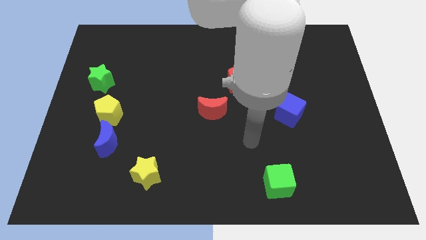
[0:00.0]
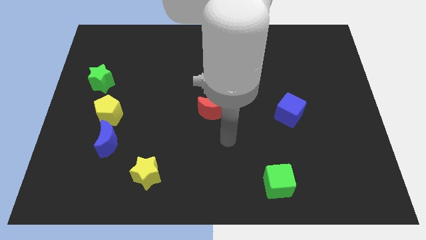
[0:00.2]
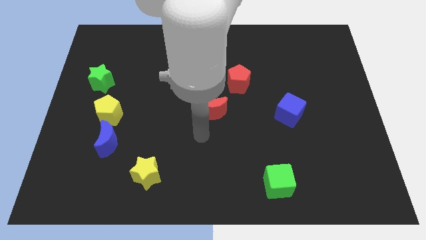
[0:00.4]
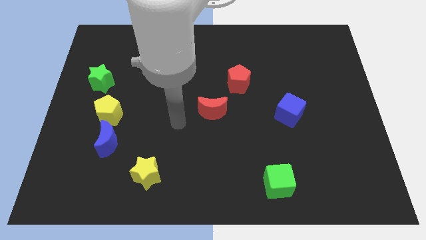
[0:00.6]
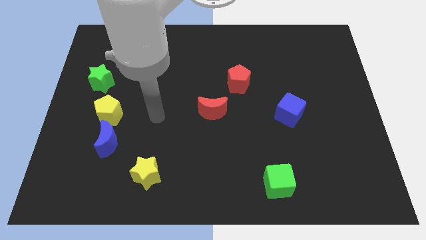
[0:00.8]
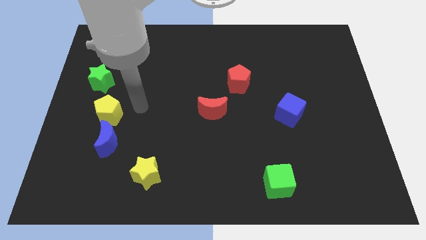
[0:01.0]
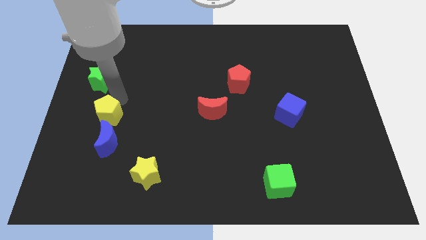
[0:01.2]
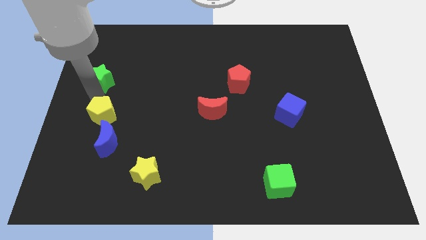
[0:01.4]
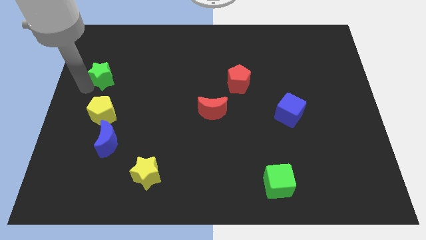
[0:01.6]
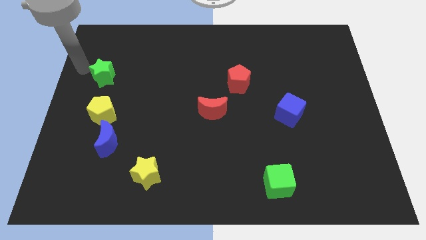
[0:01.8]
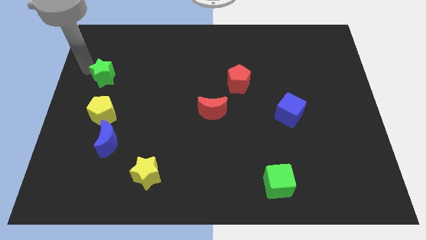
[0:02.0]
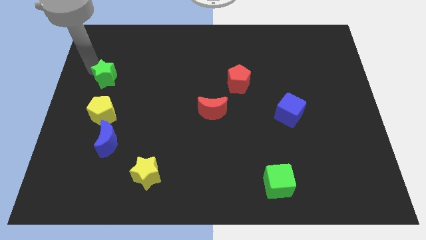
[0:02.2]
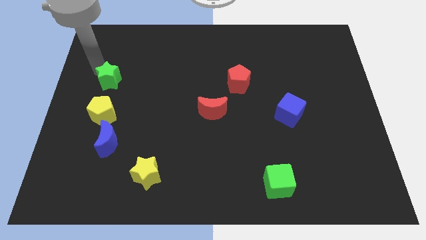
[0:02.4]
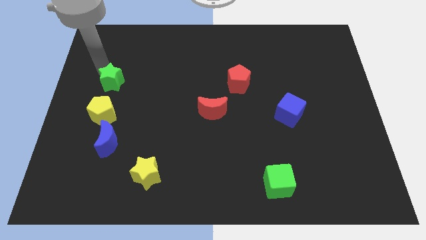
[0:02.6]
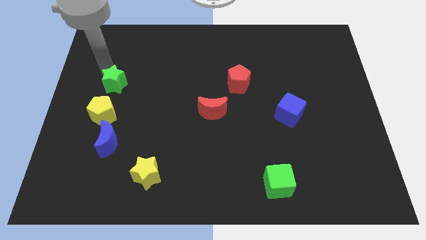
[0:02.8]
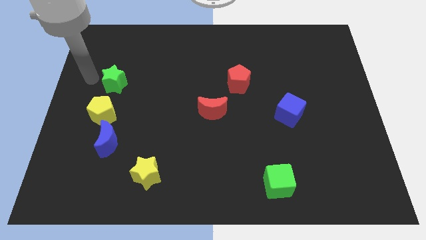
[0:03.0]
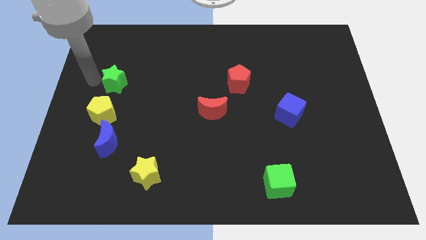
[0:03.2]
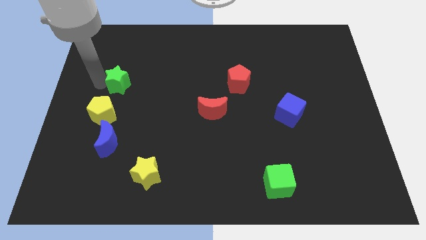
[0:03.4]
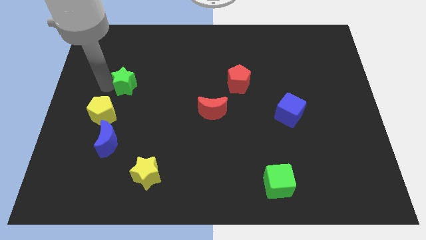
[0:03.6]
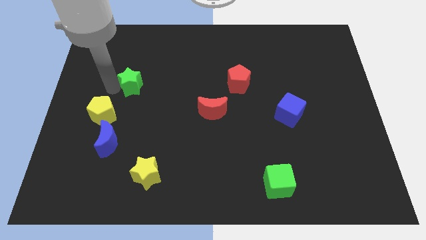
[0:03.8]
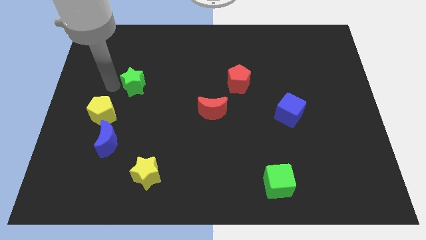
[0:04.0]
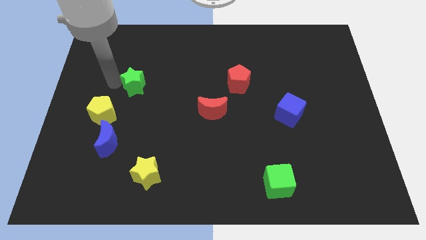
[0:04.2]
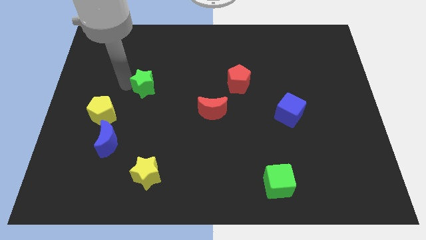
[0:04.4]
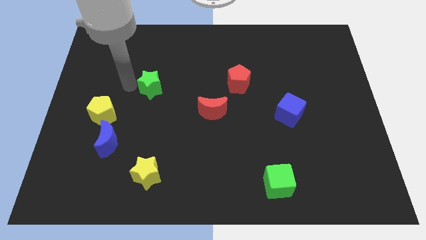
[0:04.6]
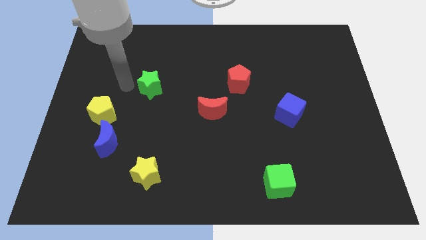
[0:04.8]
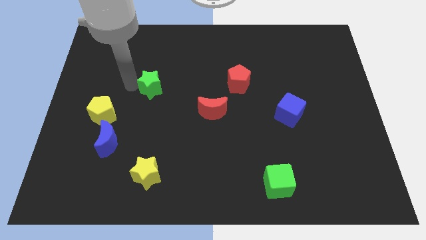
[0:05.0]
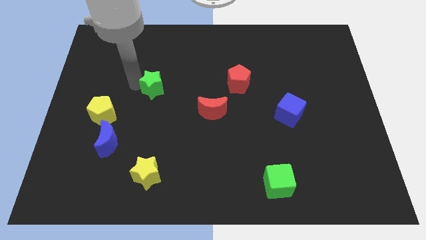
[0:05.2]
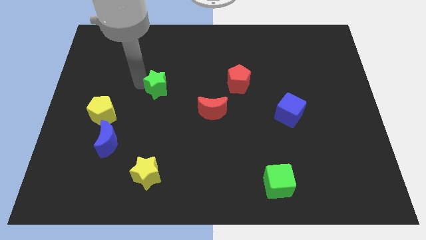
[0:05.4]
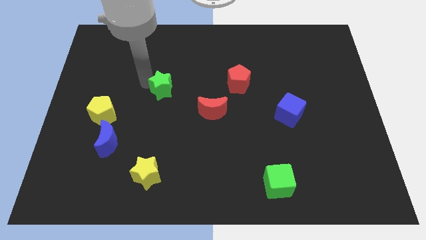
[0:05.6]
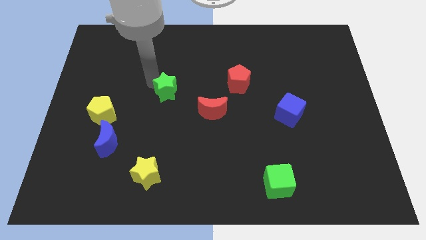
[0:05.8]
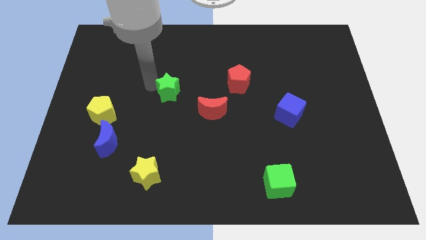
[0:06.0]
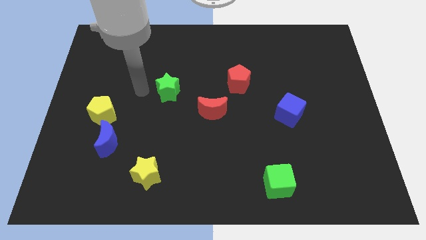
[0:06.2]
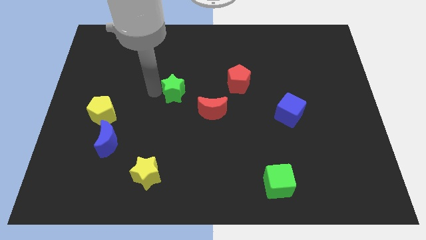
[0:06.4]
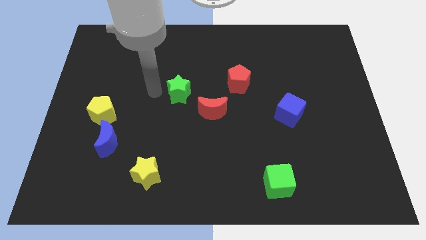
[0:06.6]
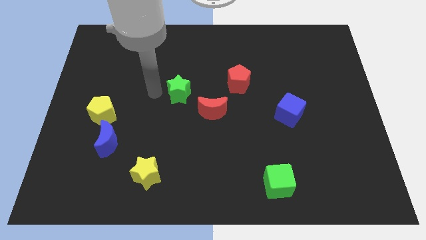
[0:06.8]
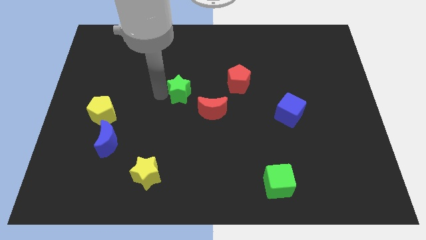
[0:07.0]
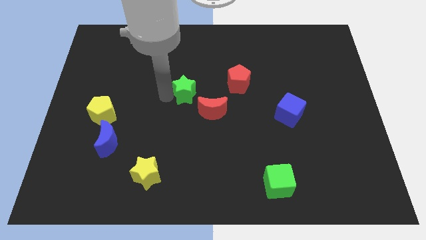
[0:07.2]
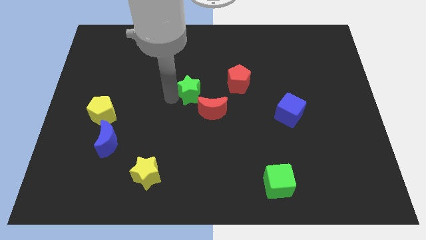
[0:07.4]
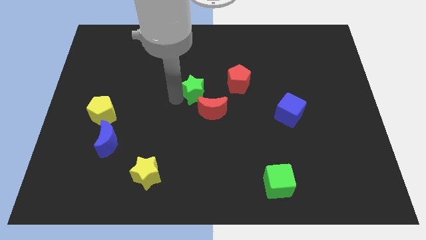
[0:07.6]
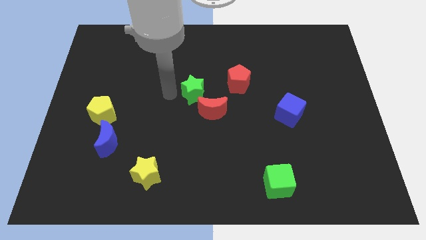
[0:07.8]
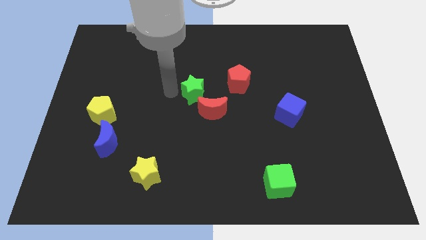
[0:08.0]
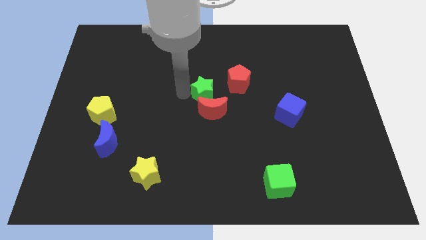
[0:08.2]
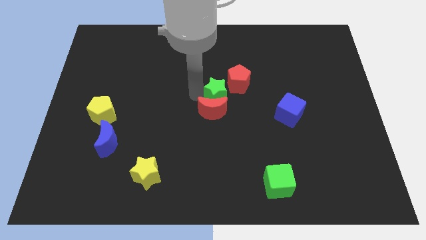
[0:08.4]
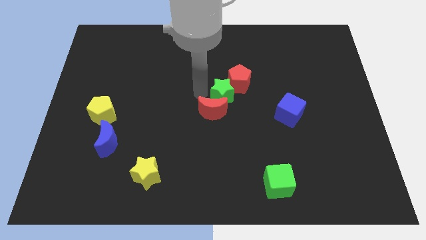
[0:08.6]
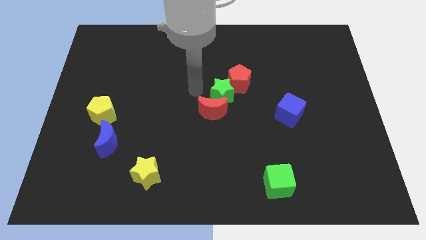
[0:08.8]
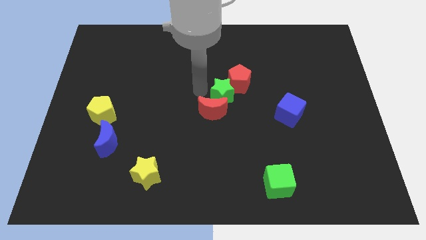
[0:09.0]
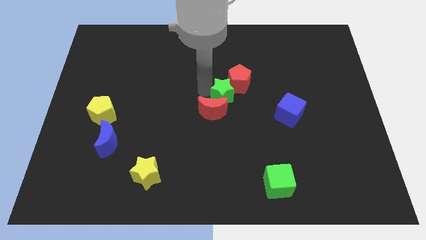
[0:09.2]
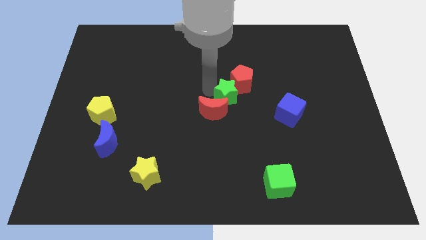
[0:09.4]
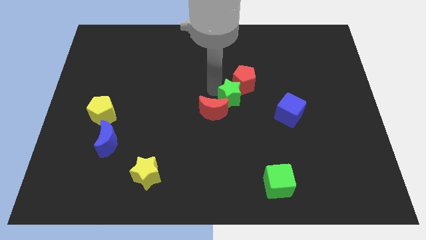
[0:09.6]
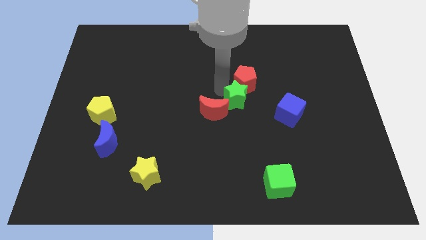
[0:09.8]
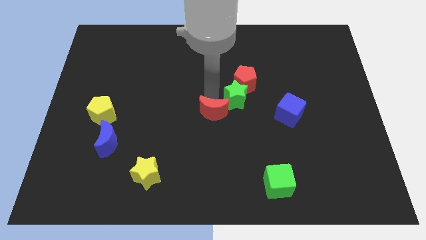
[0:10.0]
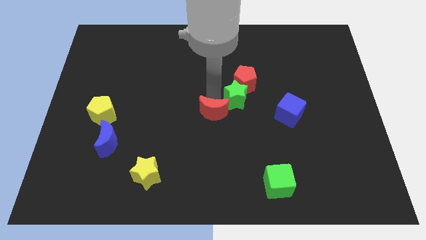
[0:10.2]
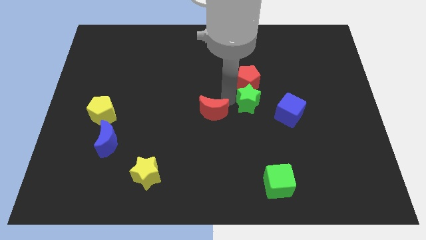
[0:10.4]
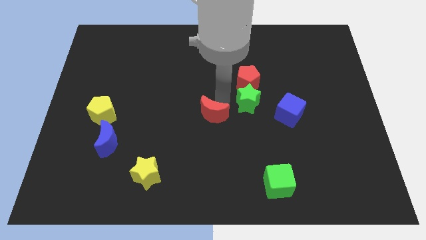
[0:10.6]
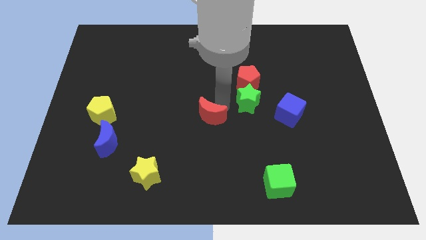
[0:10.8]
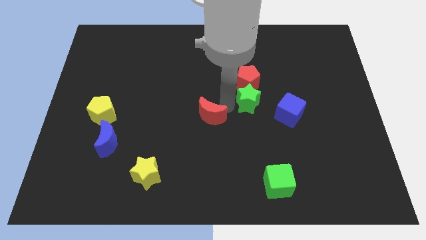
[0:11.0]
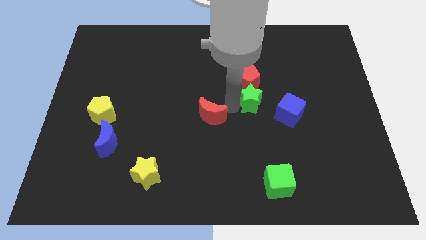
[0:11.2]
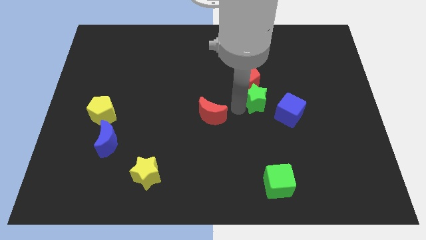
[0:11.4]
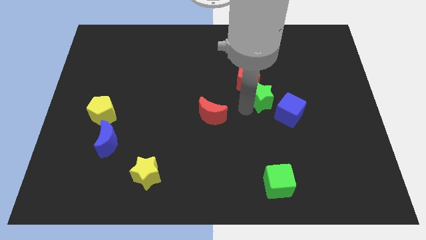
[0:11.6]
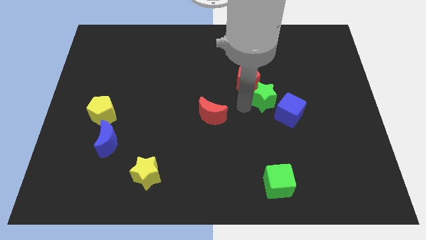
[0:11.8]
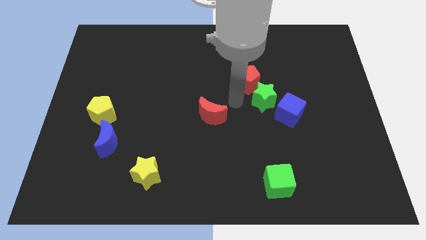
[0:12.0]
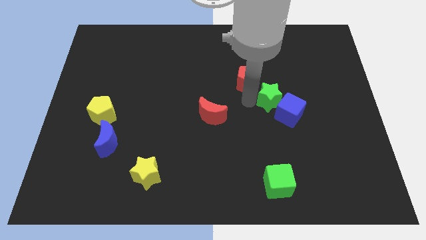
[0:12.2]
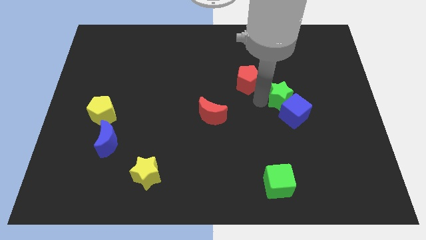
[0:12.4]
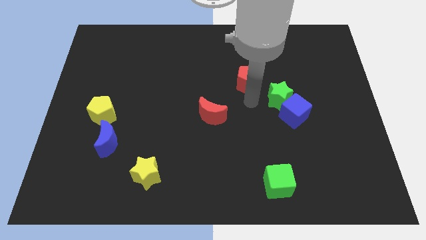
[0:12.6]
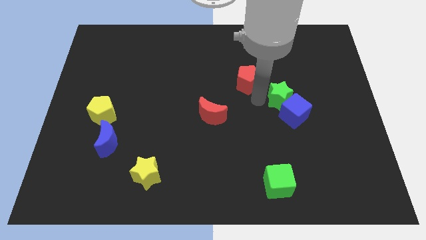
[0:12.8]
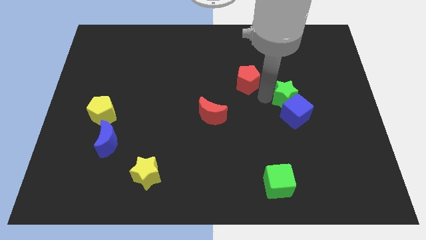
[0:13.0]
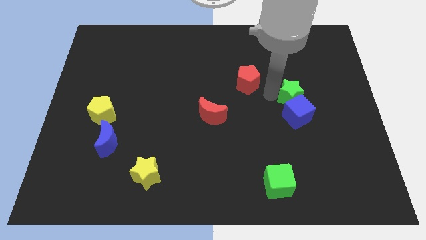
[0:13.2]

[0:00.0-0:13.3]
slide the green star to the top right of the blue cube
